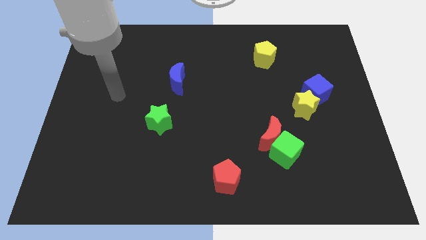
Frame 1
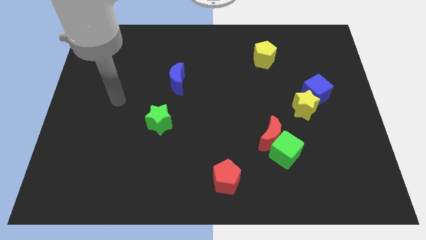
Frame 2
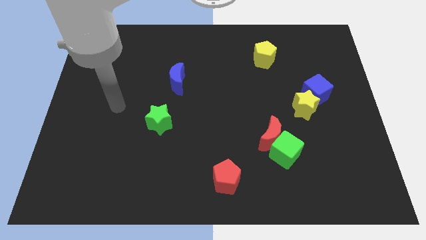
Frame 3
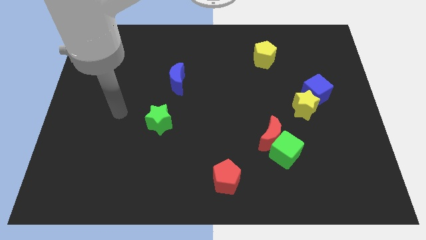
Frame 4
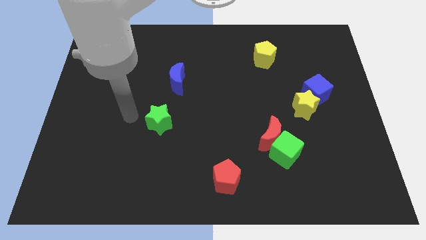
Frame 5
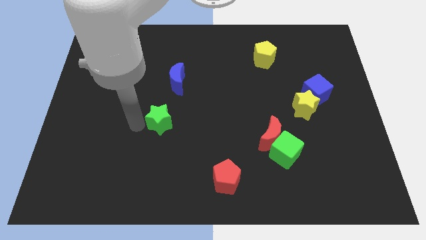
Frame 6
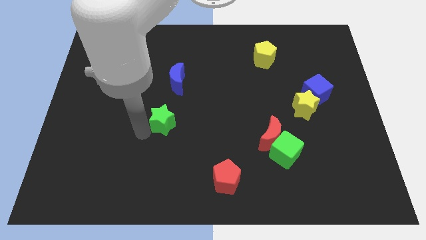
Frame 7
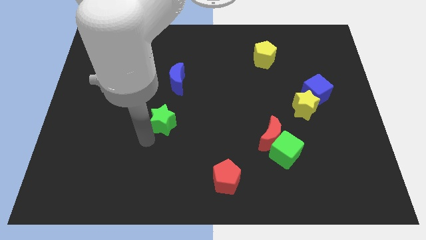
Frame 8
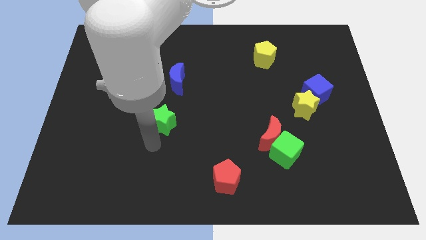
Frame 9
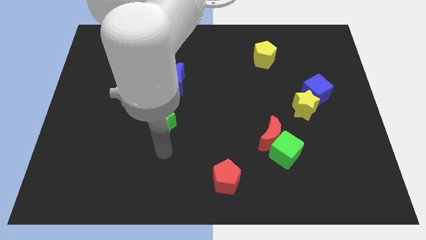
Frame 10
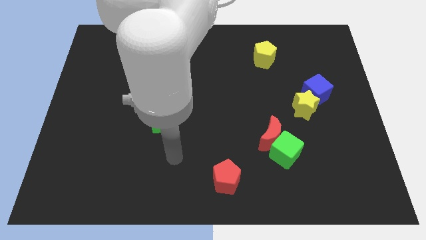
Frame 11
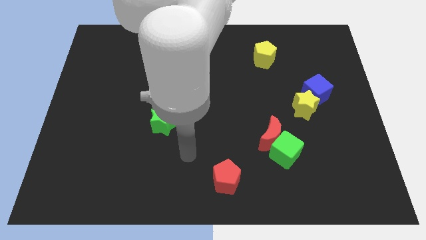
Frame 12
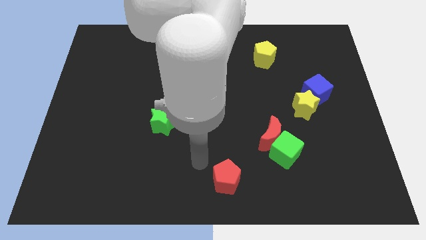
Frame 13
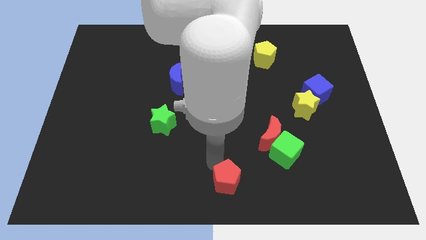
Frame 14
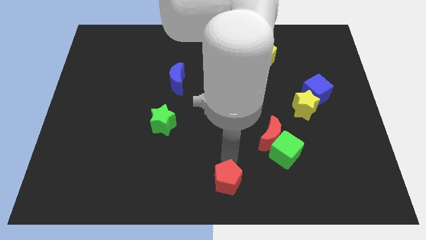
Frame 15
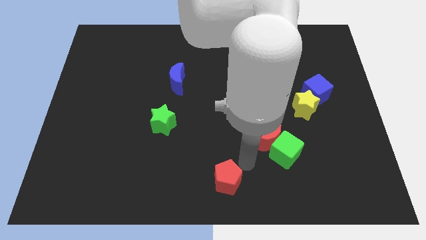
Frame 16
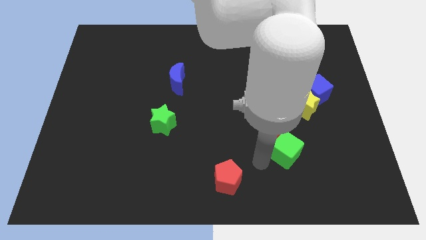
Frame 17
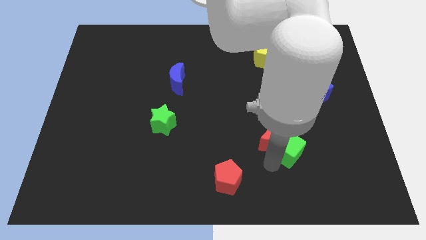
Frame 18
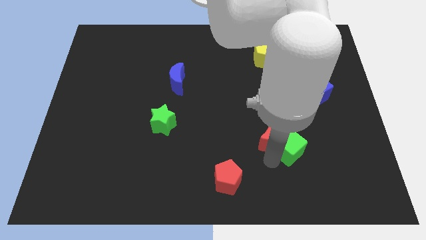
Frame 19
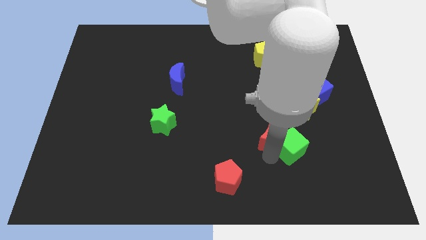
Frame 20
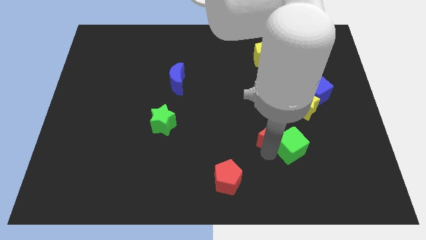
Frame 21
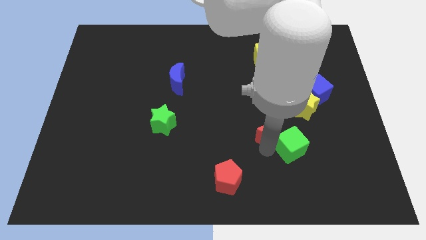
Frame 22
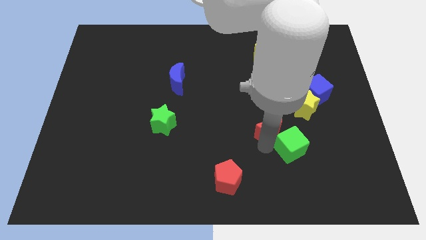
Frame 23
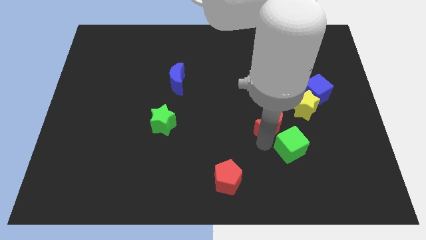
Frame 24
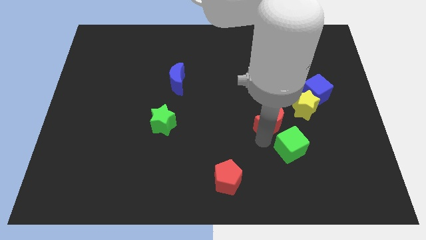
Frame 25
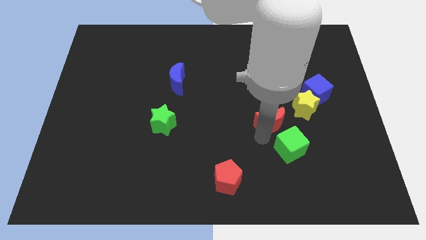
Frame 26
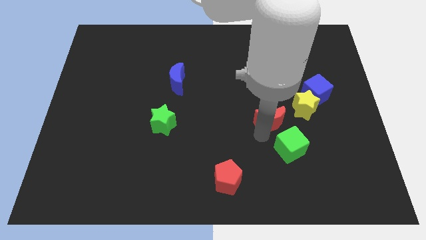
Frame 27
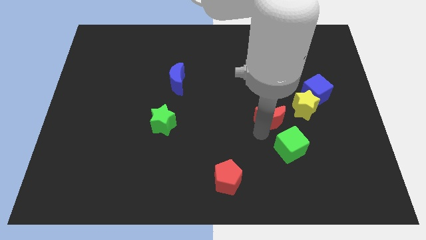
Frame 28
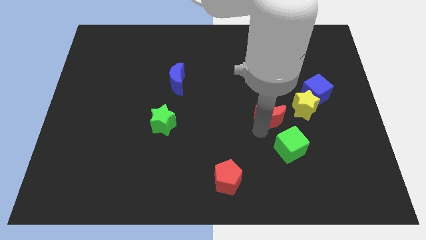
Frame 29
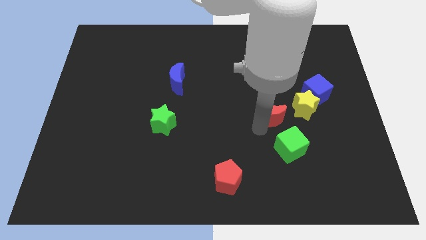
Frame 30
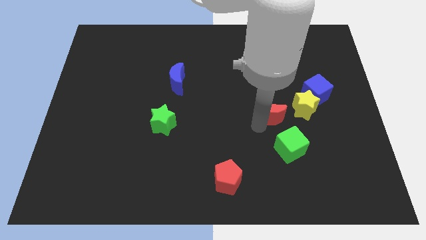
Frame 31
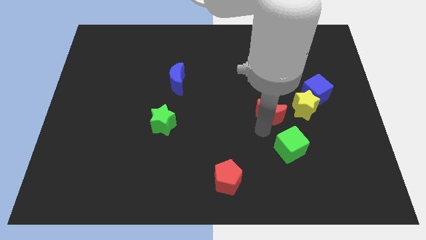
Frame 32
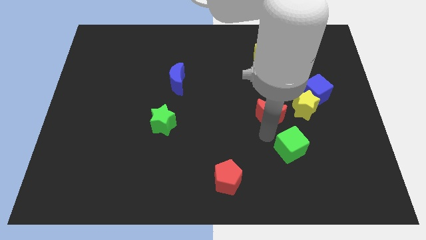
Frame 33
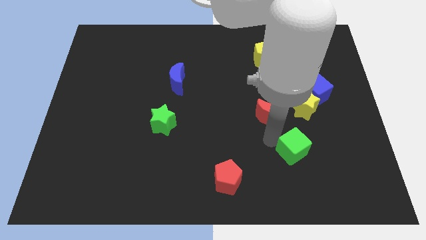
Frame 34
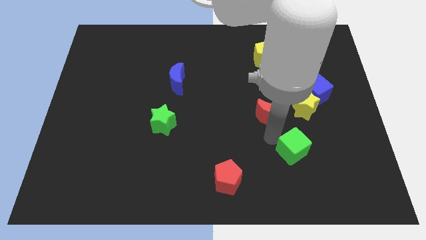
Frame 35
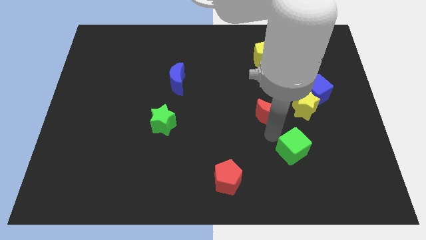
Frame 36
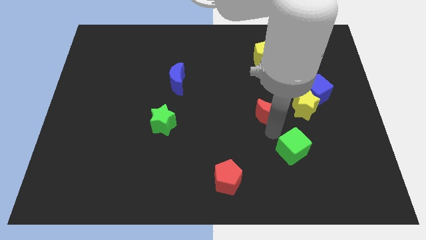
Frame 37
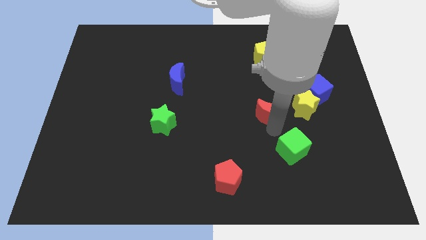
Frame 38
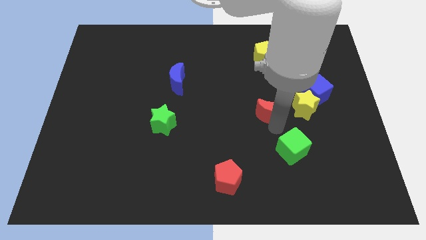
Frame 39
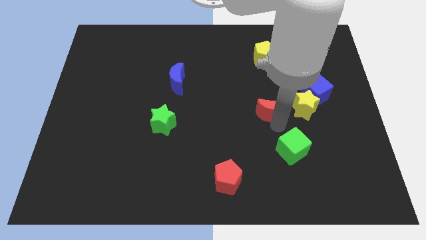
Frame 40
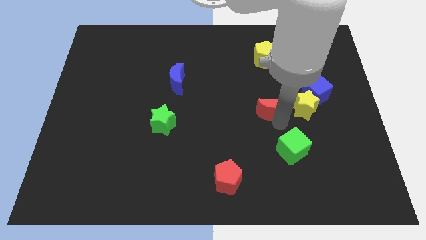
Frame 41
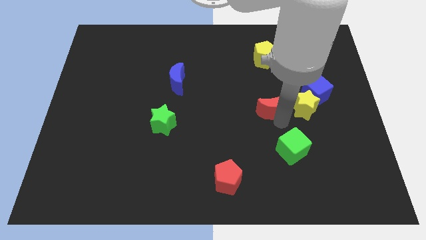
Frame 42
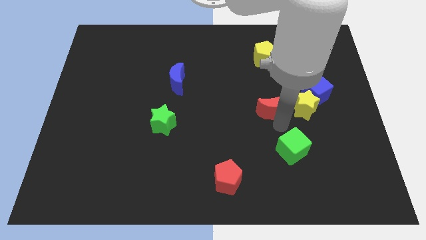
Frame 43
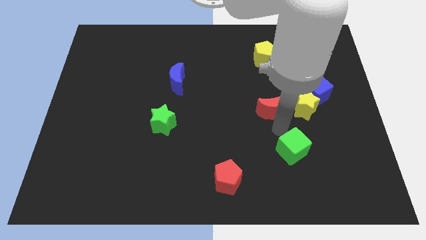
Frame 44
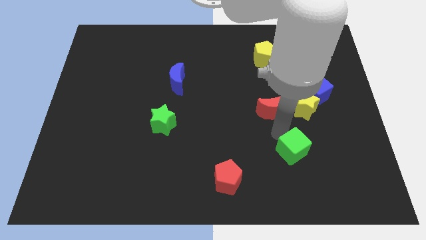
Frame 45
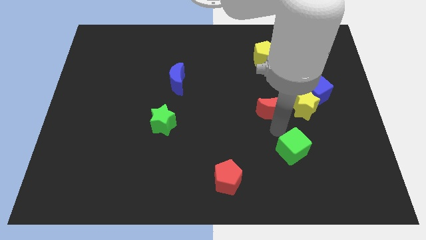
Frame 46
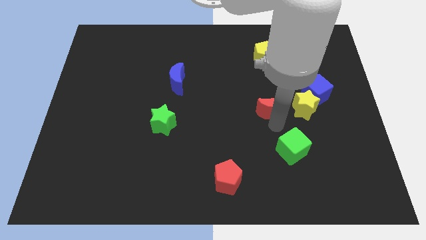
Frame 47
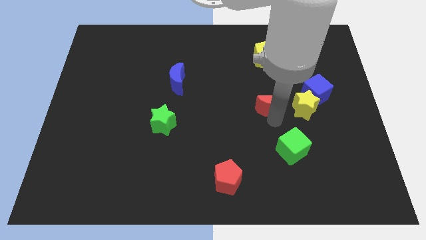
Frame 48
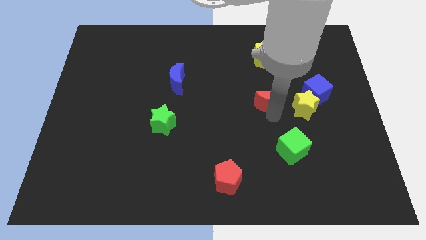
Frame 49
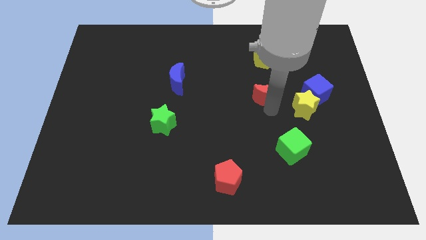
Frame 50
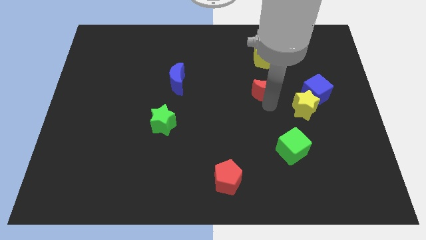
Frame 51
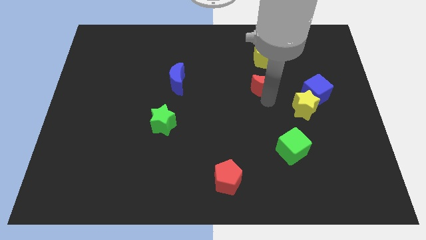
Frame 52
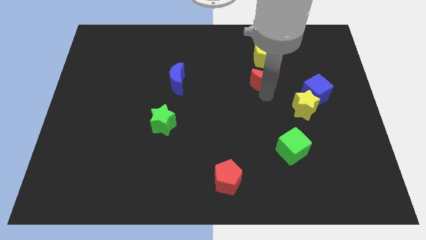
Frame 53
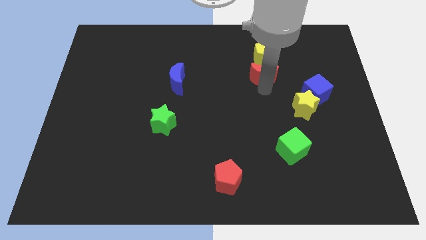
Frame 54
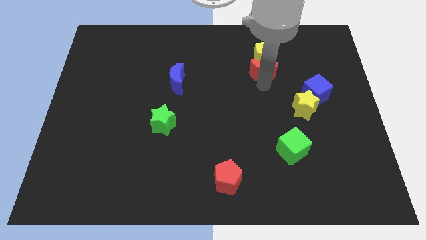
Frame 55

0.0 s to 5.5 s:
push the red moon next to the yellow pentagon

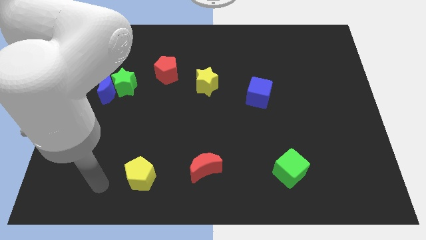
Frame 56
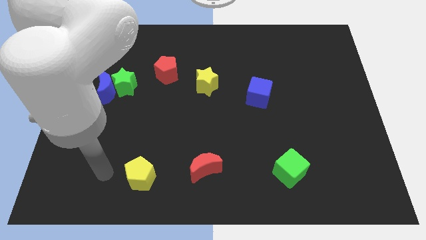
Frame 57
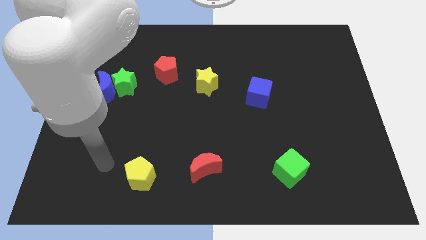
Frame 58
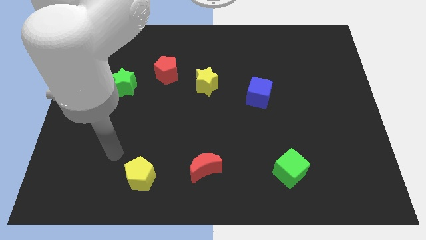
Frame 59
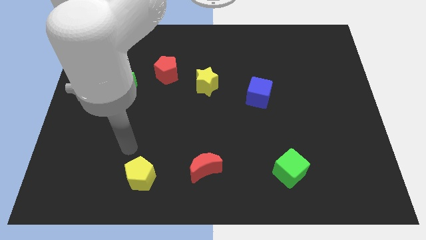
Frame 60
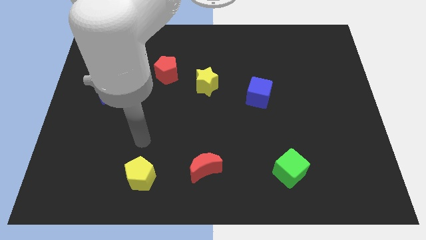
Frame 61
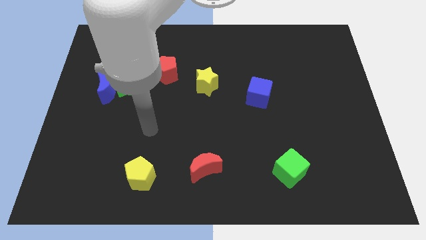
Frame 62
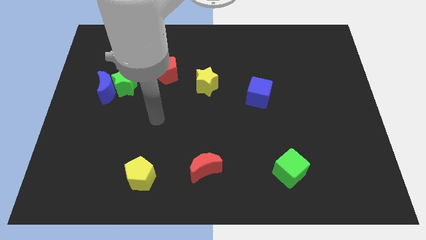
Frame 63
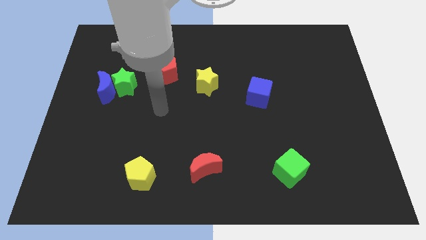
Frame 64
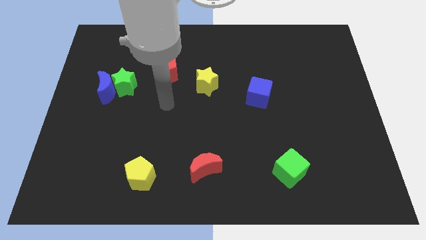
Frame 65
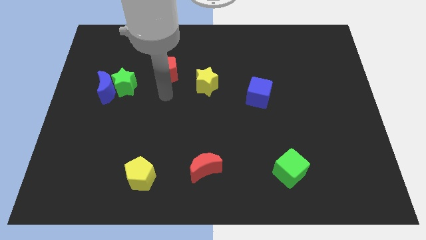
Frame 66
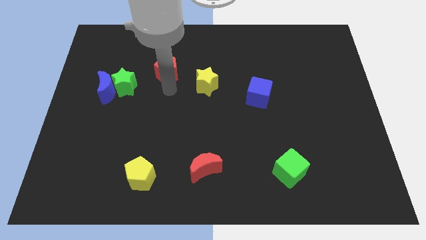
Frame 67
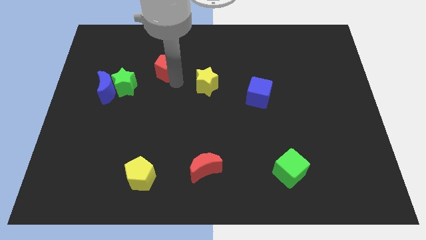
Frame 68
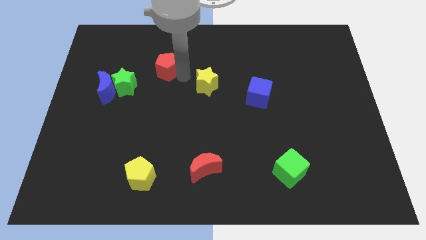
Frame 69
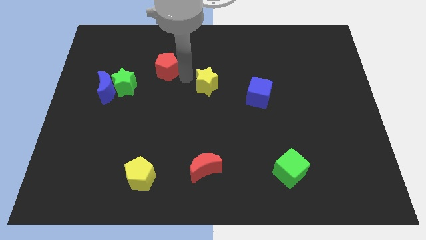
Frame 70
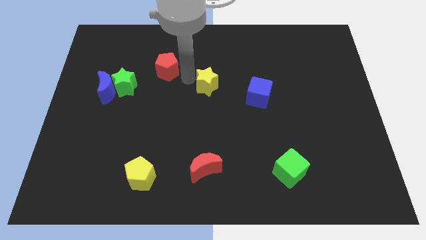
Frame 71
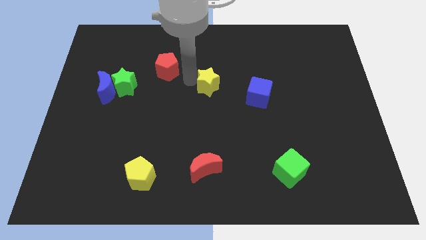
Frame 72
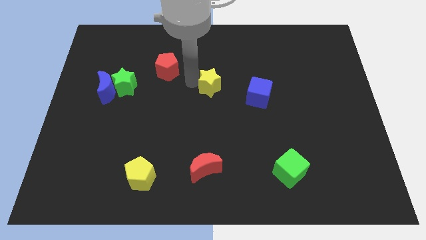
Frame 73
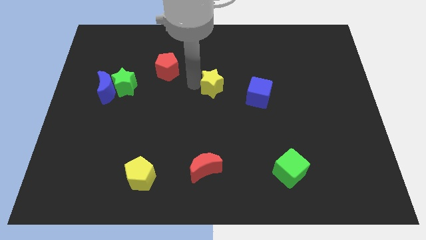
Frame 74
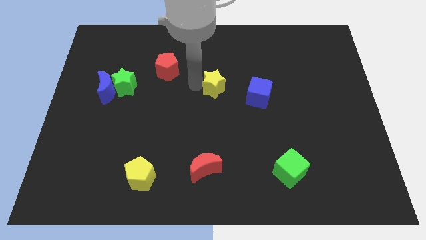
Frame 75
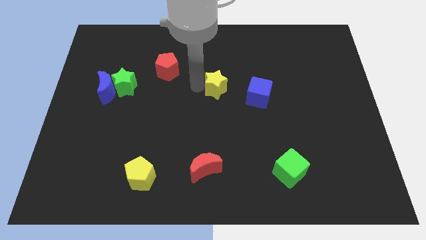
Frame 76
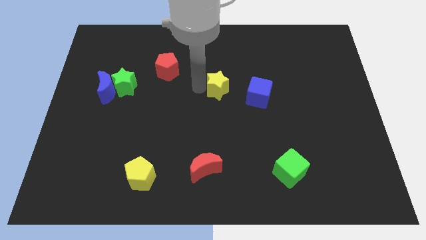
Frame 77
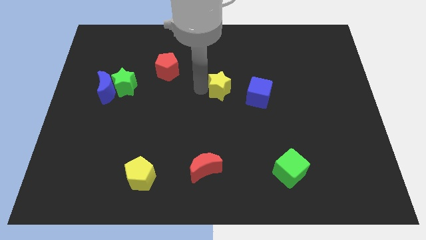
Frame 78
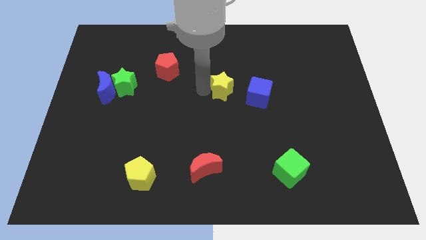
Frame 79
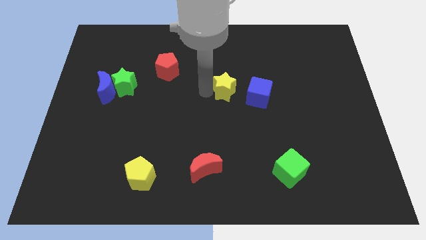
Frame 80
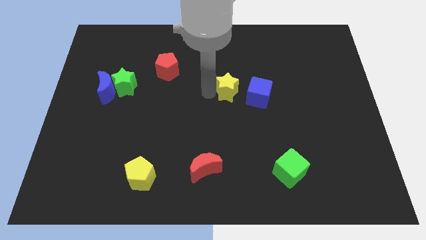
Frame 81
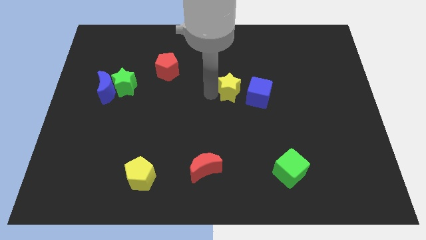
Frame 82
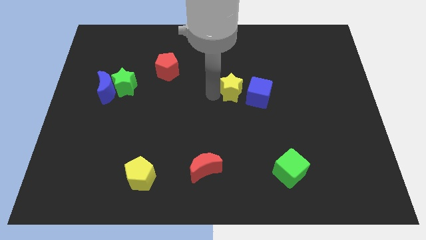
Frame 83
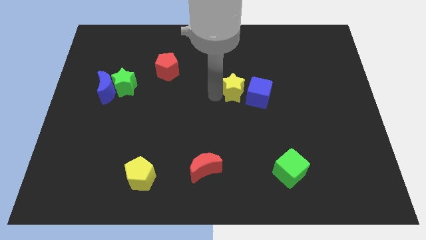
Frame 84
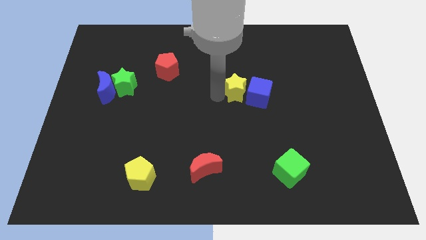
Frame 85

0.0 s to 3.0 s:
put the yellow star next to the blue cube
